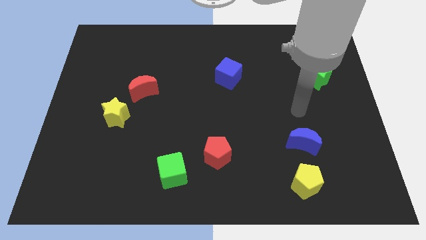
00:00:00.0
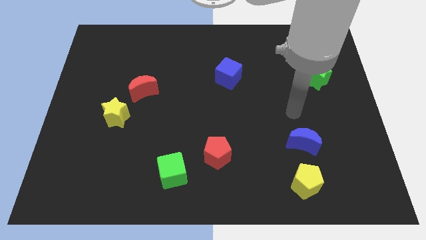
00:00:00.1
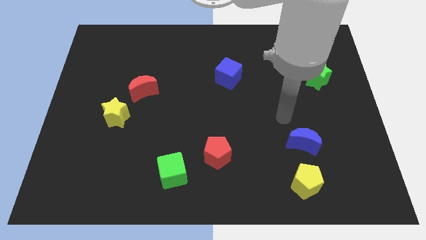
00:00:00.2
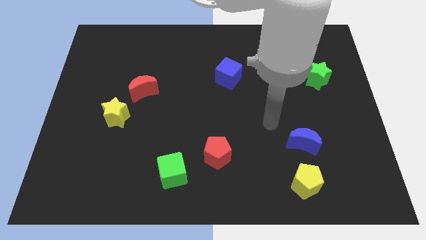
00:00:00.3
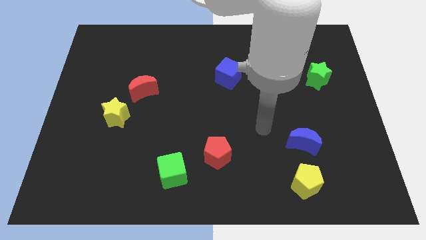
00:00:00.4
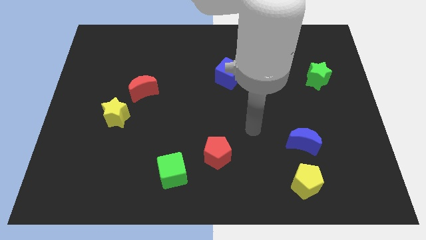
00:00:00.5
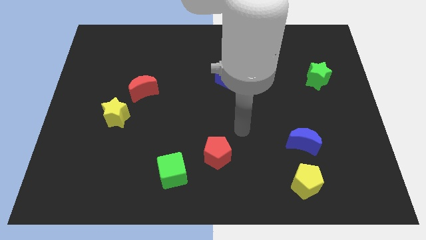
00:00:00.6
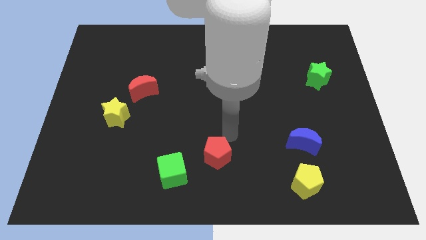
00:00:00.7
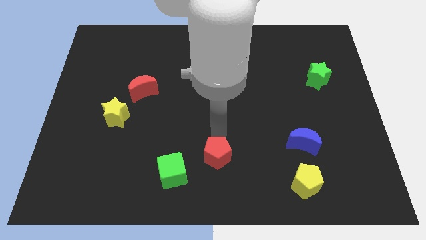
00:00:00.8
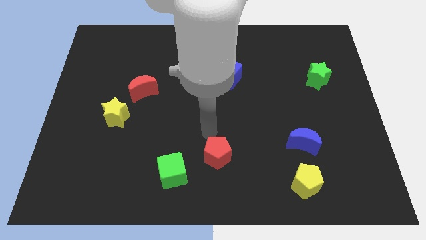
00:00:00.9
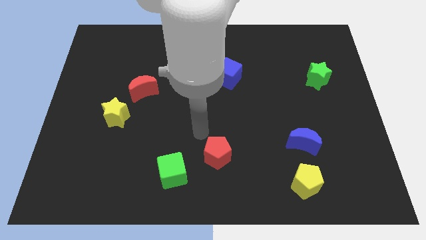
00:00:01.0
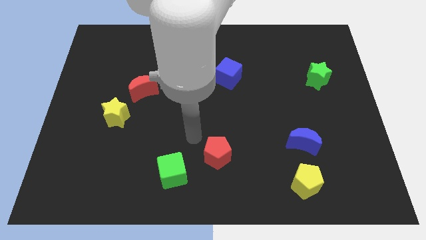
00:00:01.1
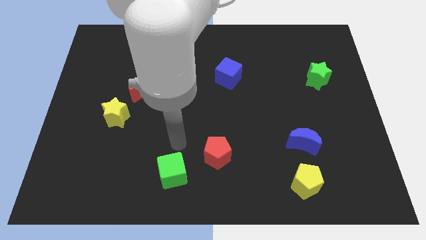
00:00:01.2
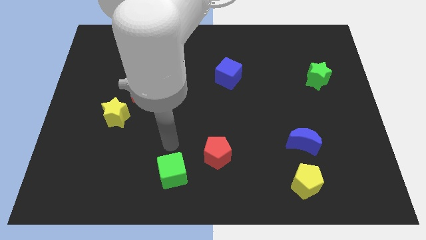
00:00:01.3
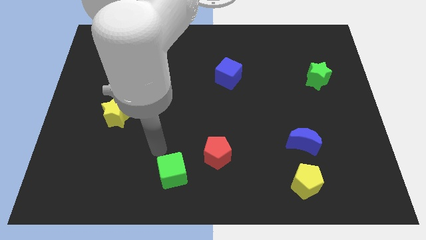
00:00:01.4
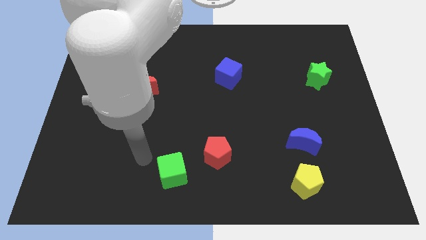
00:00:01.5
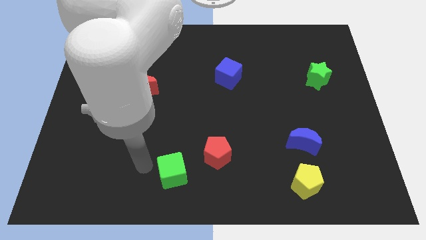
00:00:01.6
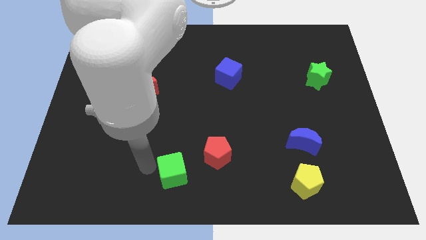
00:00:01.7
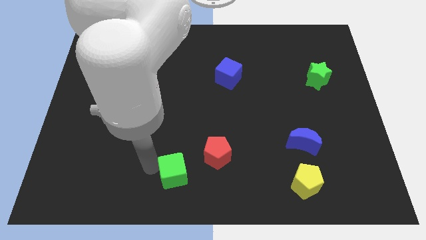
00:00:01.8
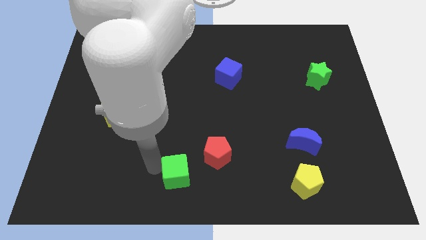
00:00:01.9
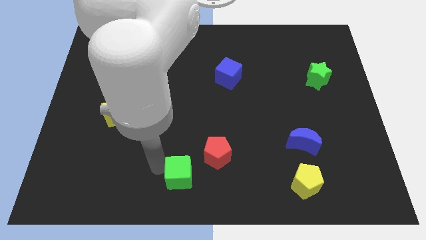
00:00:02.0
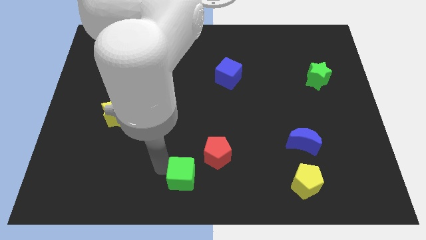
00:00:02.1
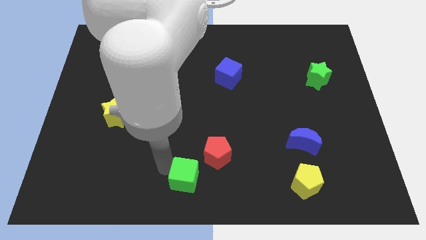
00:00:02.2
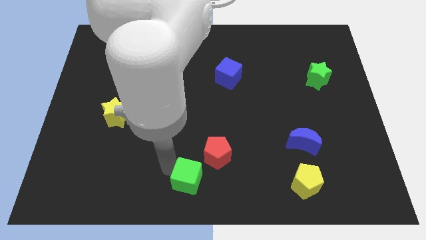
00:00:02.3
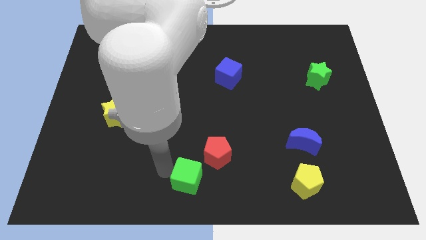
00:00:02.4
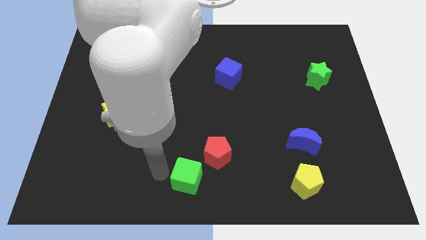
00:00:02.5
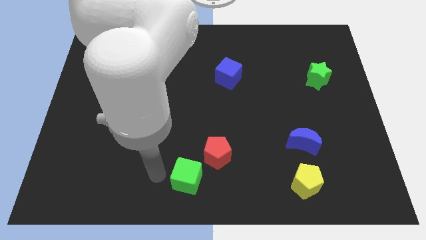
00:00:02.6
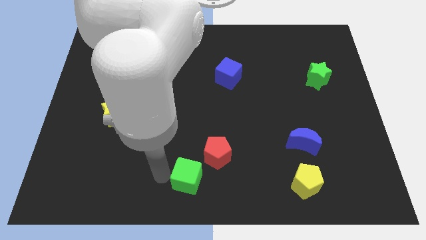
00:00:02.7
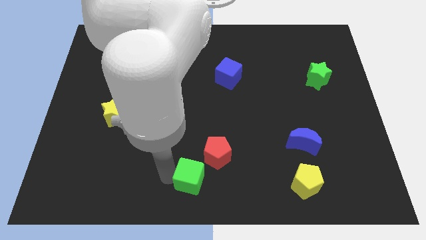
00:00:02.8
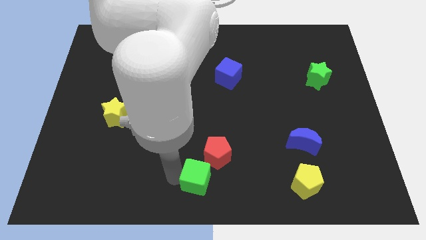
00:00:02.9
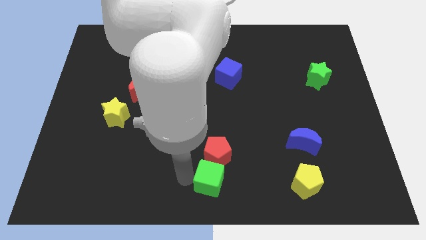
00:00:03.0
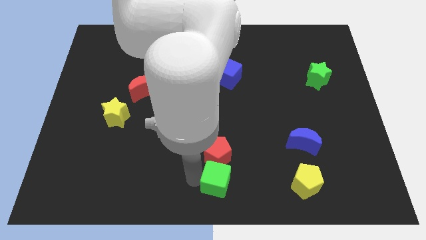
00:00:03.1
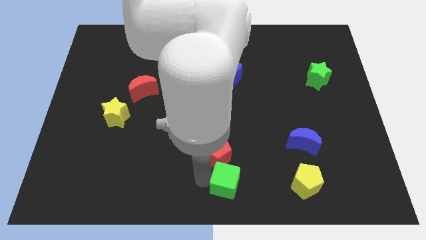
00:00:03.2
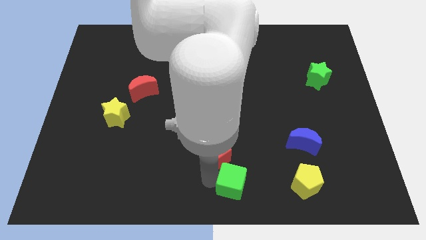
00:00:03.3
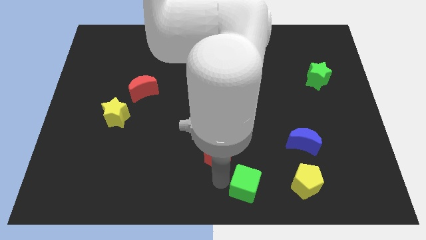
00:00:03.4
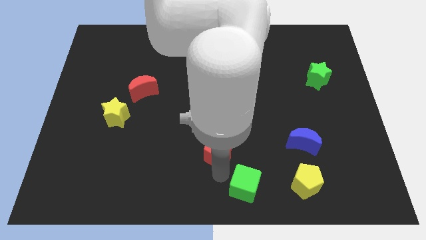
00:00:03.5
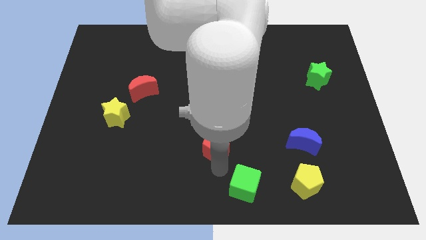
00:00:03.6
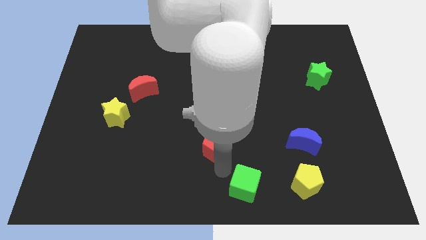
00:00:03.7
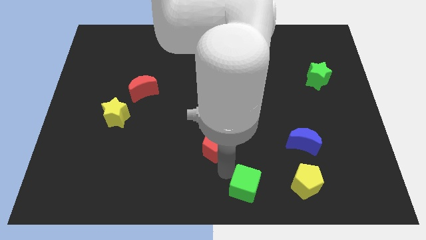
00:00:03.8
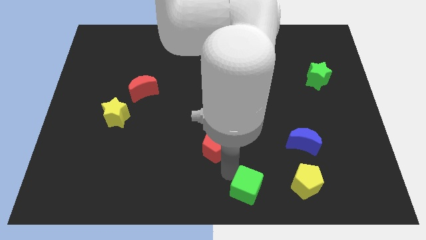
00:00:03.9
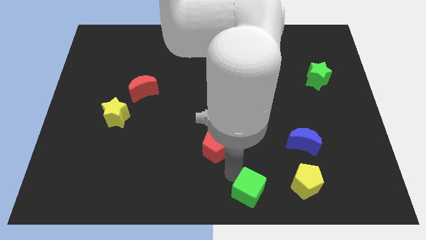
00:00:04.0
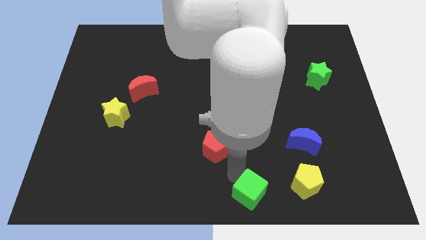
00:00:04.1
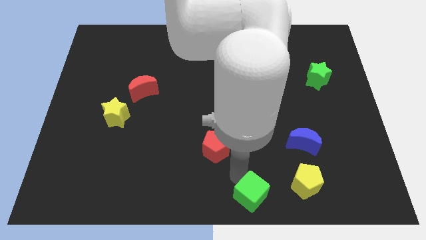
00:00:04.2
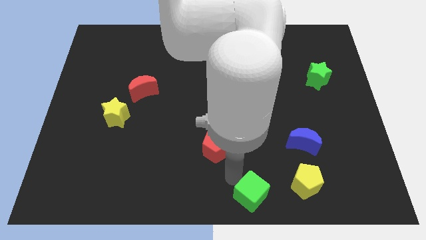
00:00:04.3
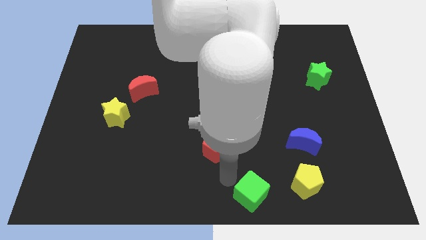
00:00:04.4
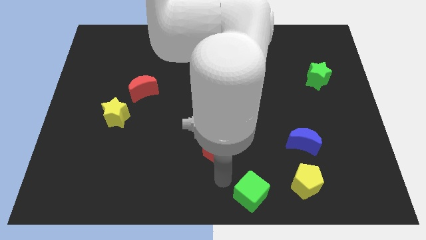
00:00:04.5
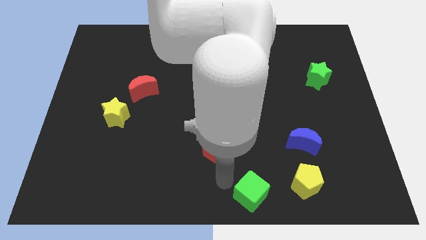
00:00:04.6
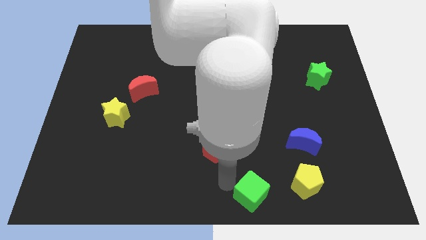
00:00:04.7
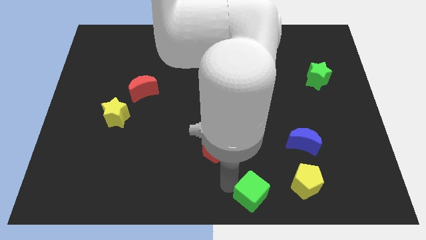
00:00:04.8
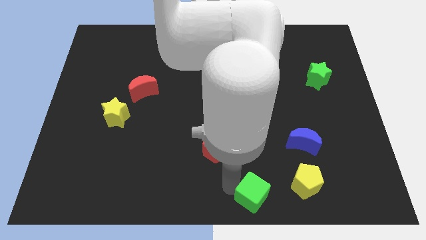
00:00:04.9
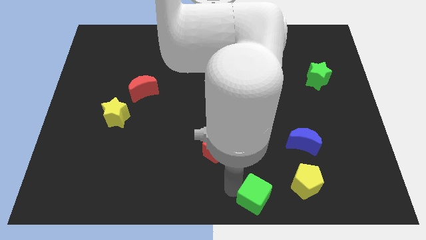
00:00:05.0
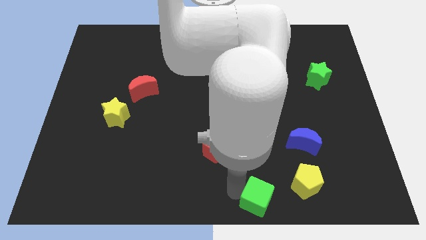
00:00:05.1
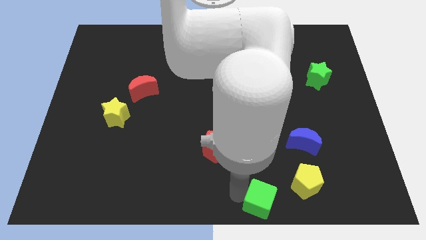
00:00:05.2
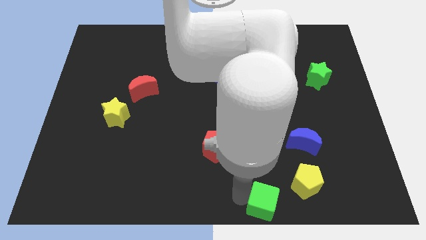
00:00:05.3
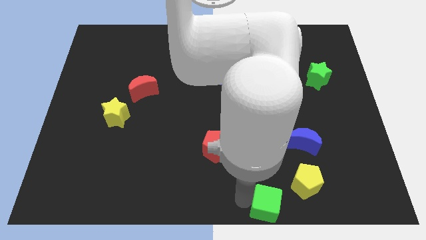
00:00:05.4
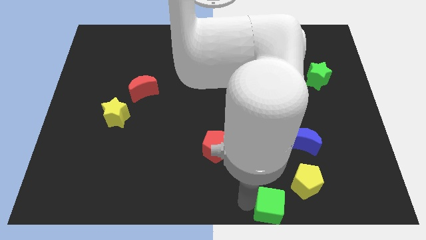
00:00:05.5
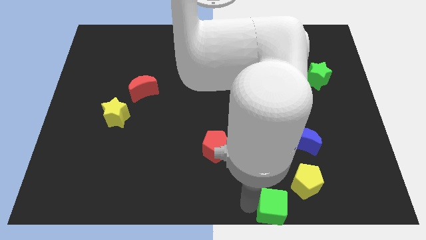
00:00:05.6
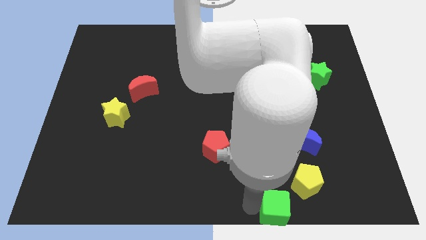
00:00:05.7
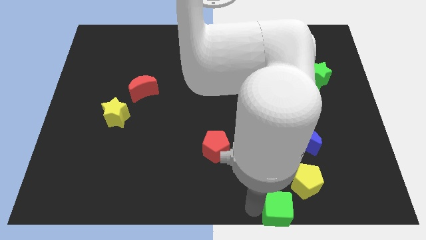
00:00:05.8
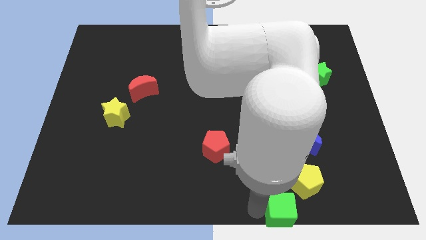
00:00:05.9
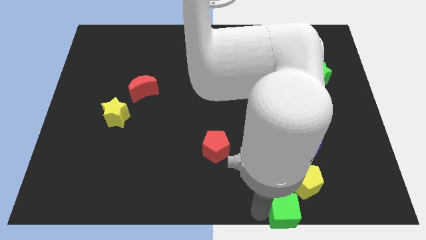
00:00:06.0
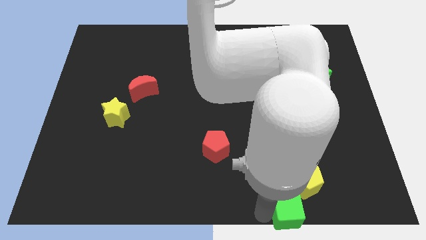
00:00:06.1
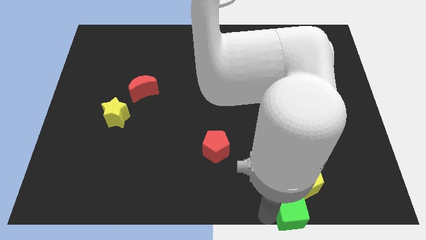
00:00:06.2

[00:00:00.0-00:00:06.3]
move the green cube to the right

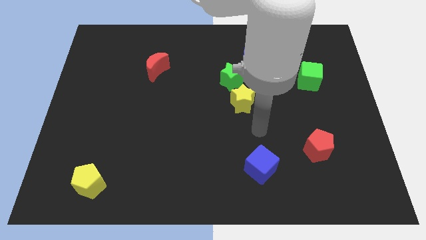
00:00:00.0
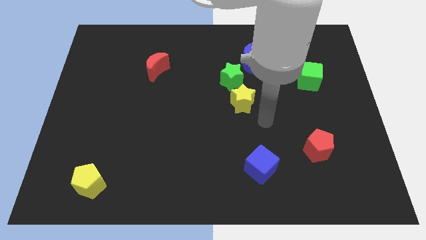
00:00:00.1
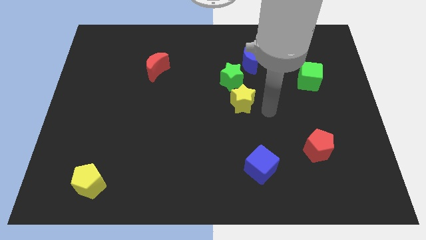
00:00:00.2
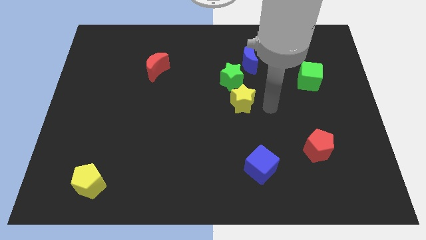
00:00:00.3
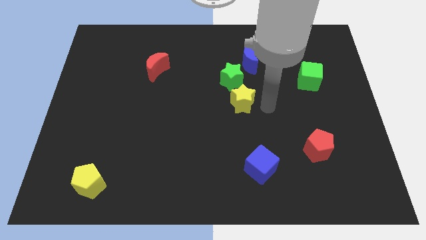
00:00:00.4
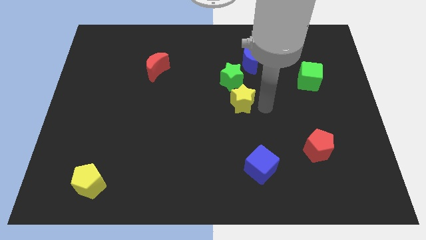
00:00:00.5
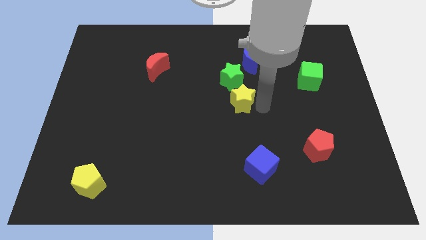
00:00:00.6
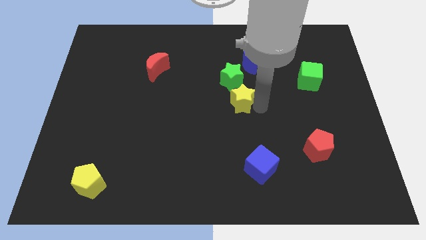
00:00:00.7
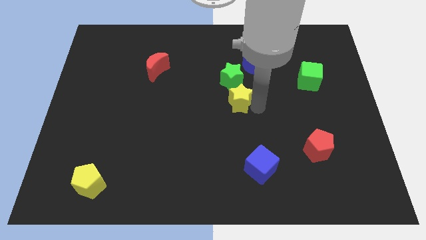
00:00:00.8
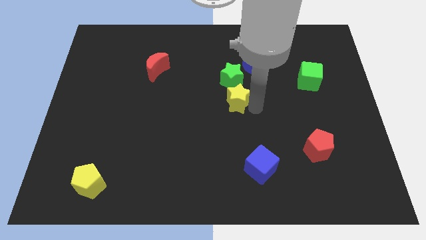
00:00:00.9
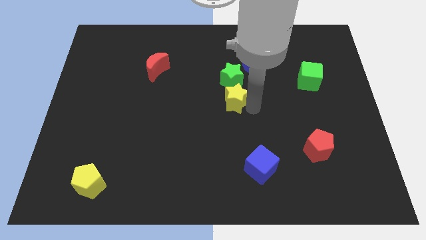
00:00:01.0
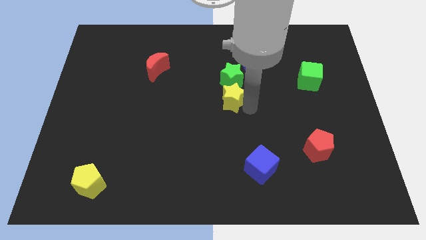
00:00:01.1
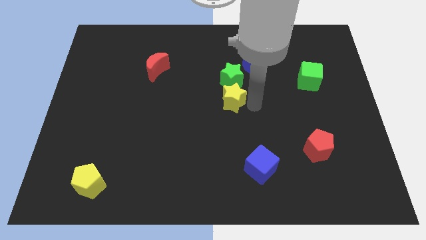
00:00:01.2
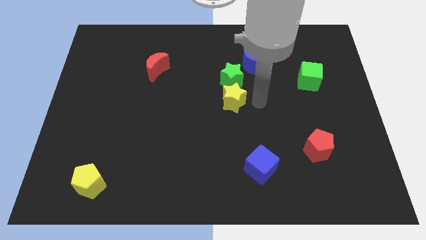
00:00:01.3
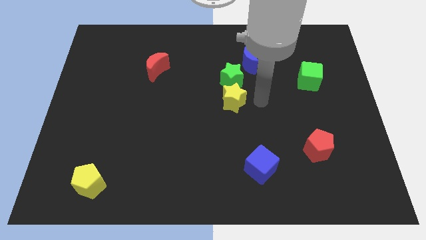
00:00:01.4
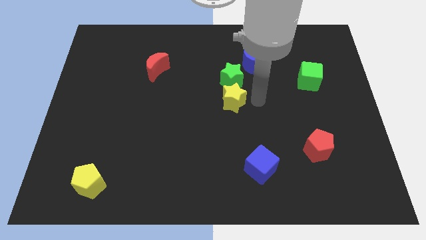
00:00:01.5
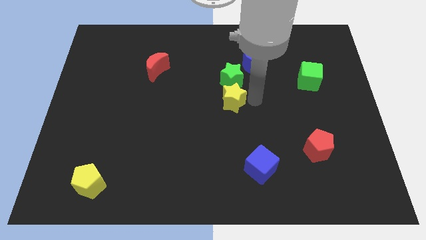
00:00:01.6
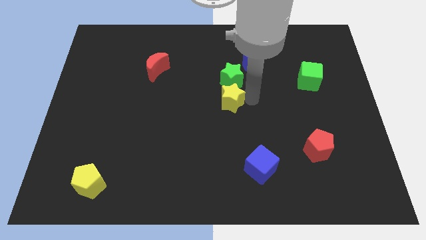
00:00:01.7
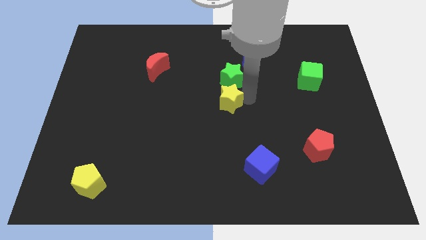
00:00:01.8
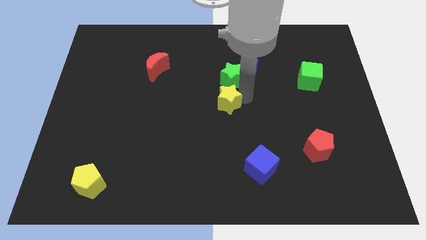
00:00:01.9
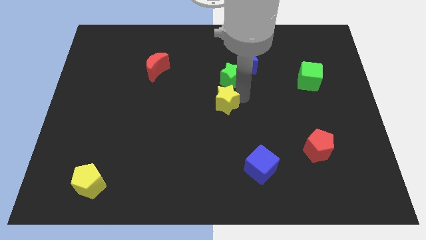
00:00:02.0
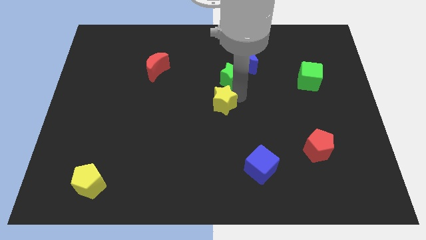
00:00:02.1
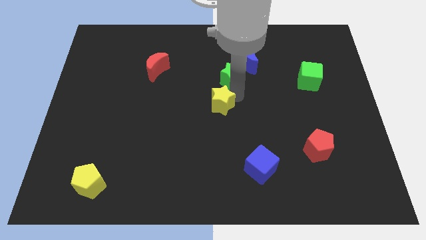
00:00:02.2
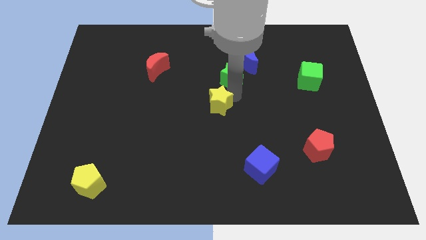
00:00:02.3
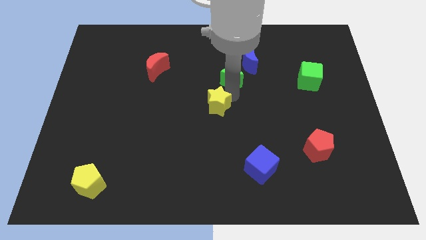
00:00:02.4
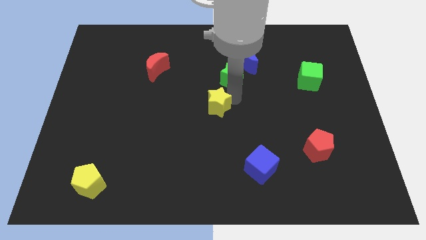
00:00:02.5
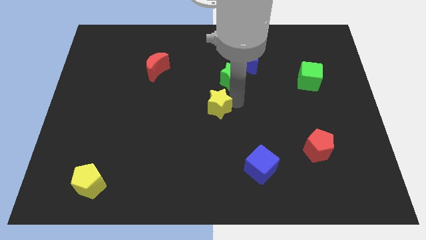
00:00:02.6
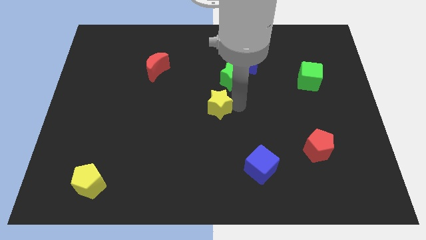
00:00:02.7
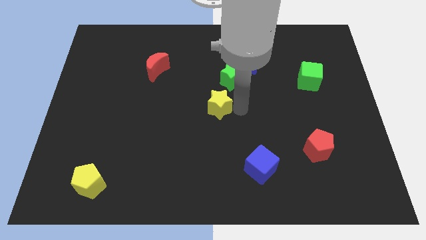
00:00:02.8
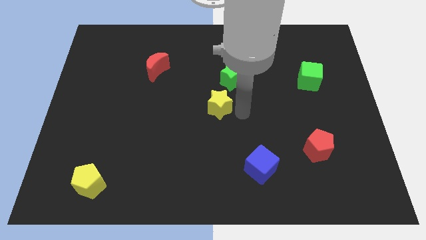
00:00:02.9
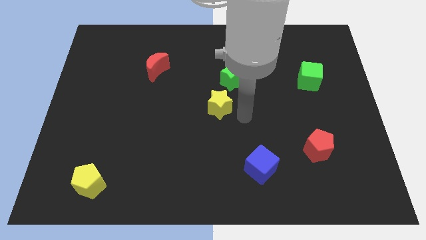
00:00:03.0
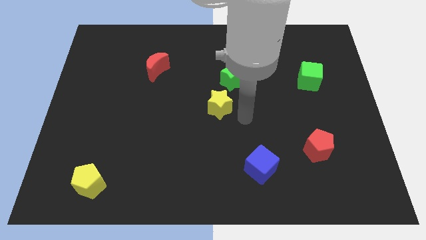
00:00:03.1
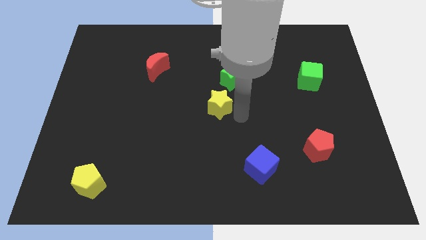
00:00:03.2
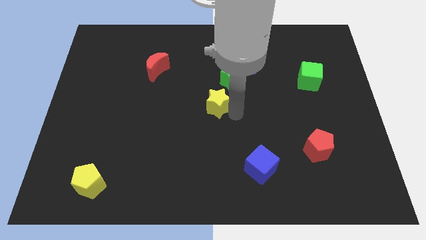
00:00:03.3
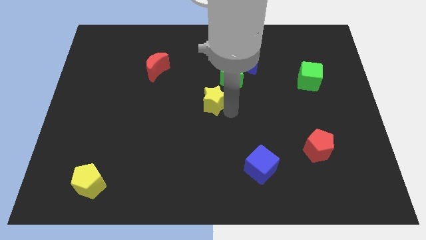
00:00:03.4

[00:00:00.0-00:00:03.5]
slightly move the yellow star left
